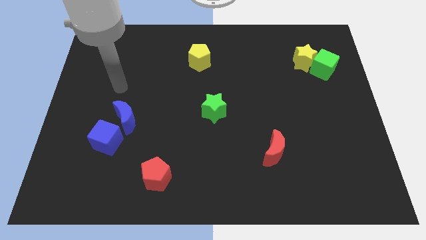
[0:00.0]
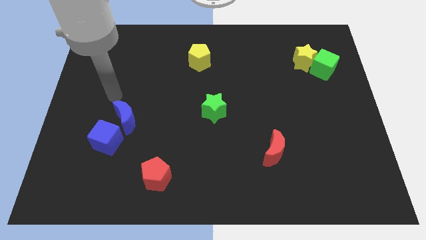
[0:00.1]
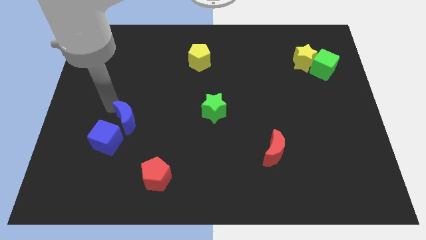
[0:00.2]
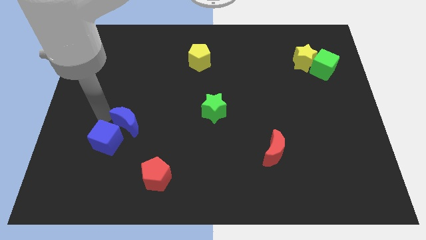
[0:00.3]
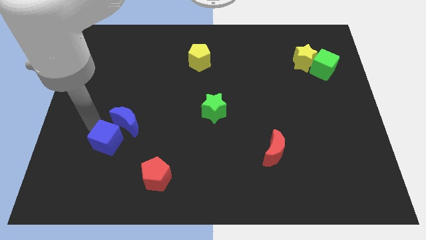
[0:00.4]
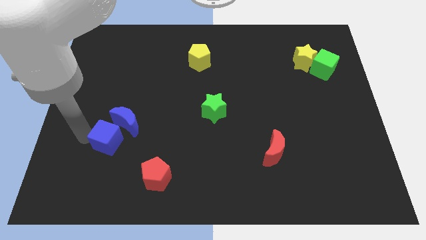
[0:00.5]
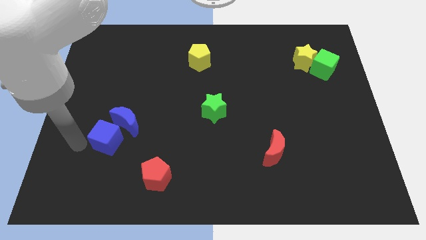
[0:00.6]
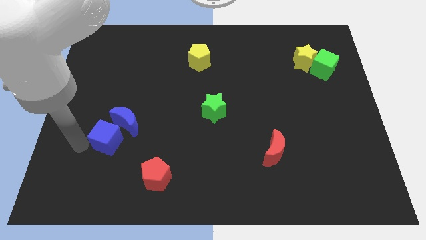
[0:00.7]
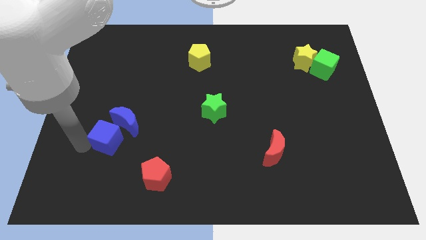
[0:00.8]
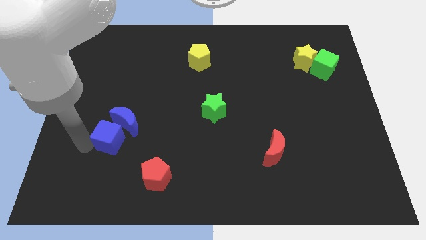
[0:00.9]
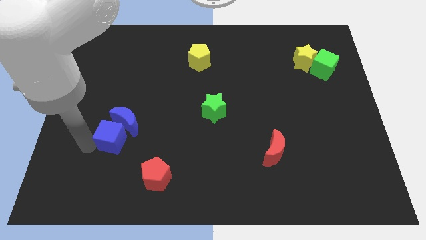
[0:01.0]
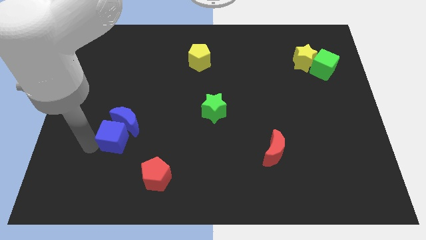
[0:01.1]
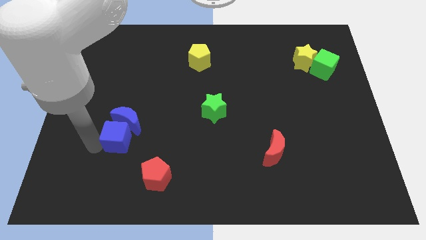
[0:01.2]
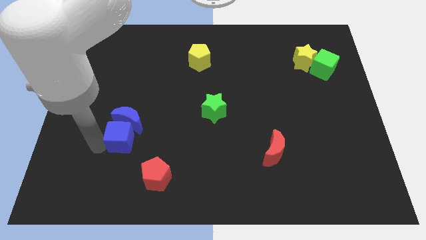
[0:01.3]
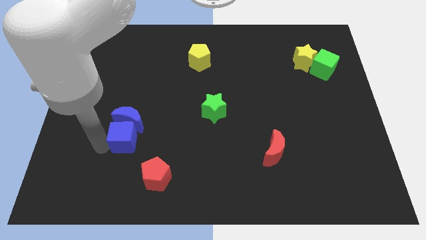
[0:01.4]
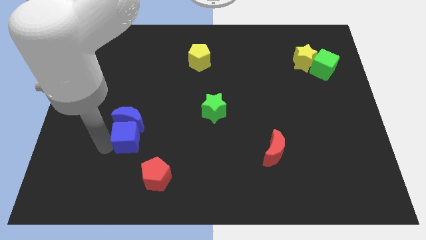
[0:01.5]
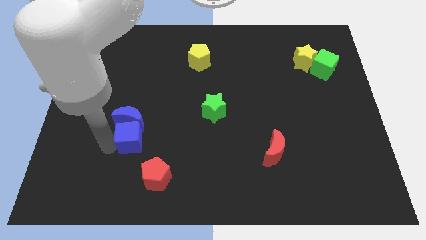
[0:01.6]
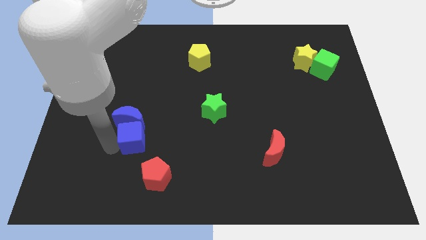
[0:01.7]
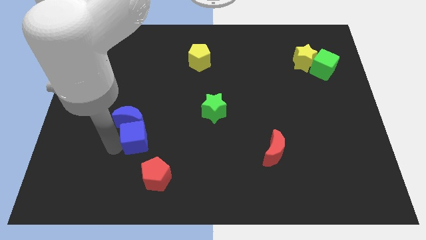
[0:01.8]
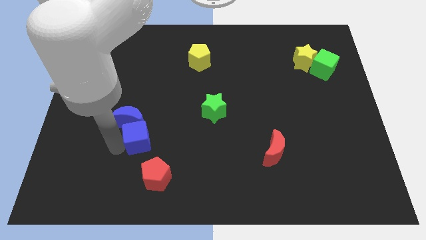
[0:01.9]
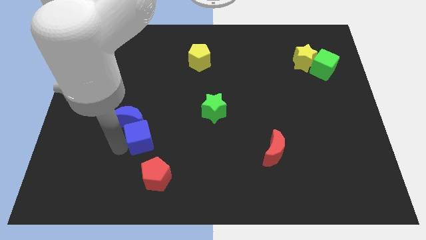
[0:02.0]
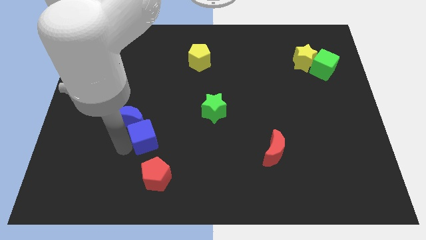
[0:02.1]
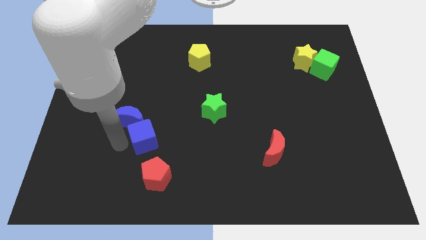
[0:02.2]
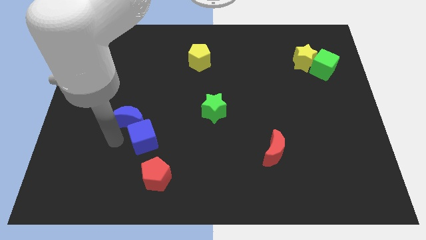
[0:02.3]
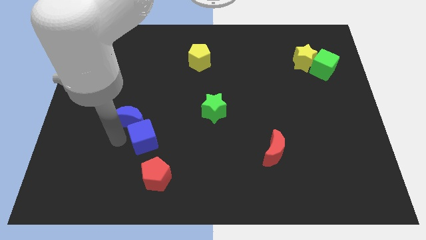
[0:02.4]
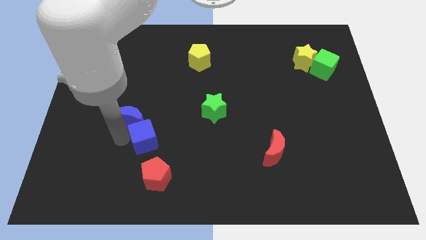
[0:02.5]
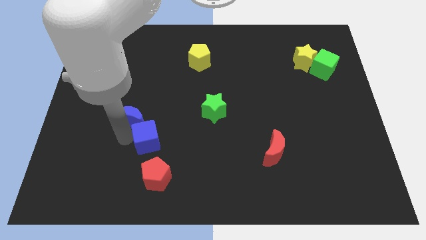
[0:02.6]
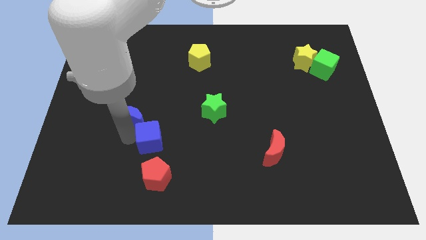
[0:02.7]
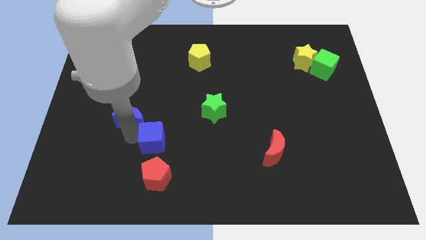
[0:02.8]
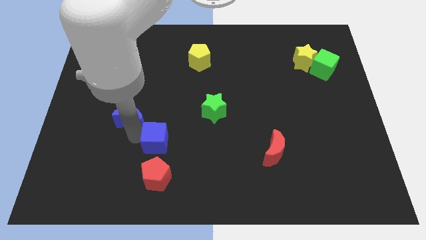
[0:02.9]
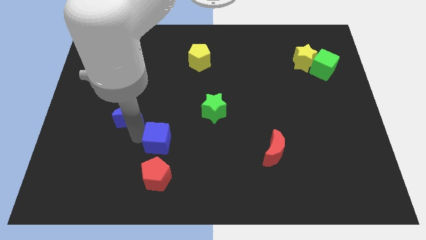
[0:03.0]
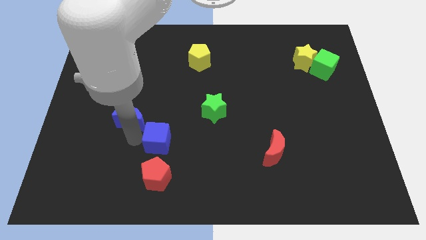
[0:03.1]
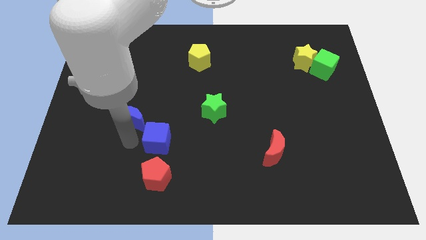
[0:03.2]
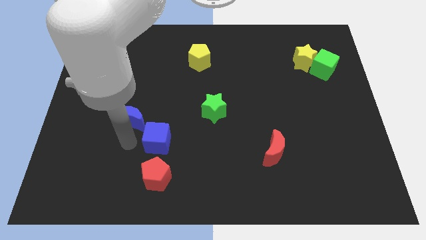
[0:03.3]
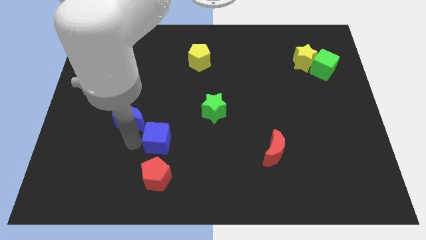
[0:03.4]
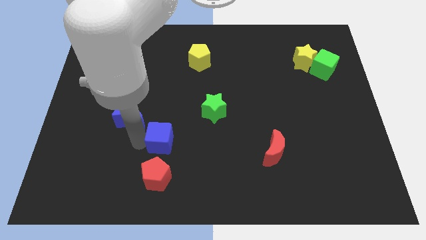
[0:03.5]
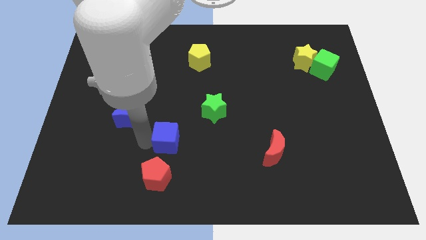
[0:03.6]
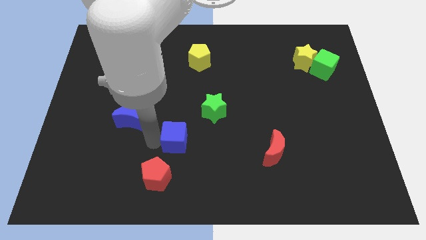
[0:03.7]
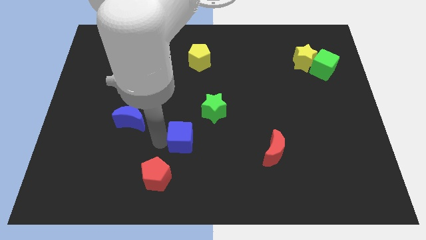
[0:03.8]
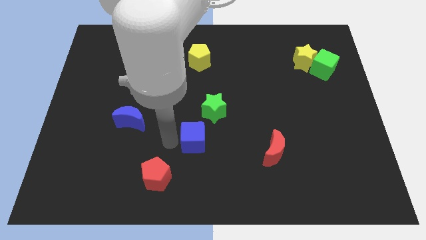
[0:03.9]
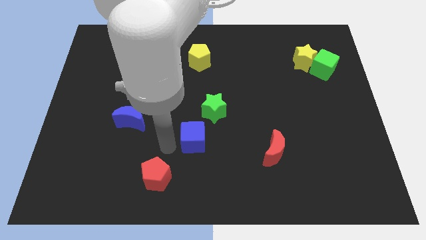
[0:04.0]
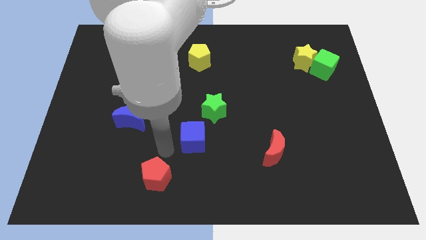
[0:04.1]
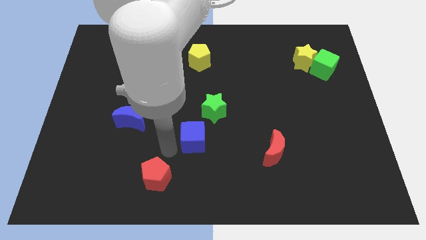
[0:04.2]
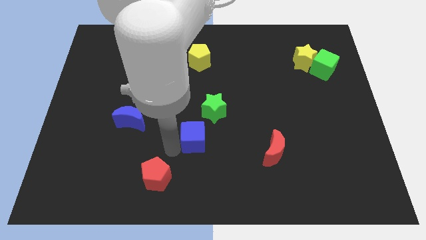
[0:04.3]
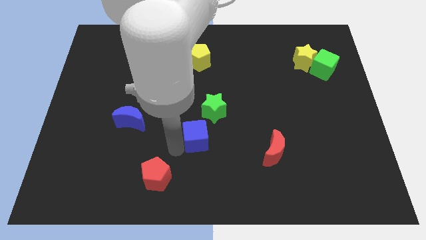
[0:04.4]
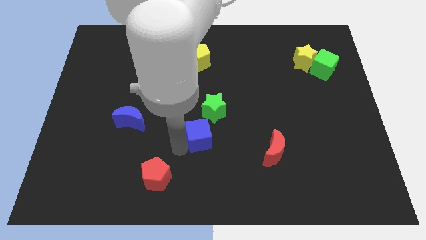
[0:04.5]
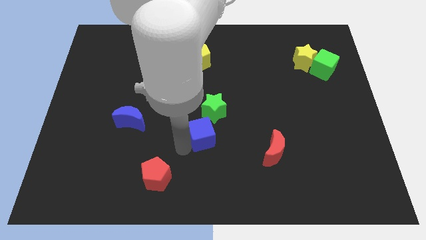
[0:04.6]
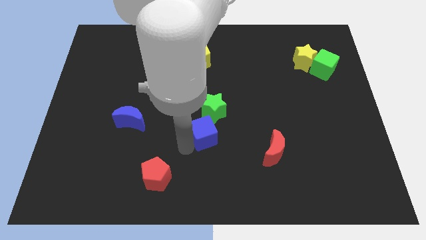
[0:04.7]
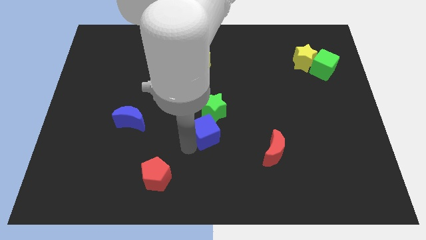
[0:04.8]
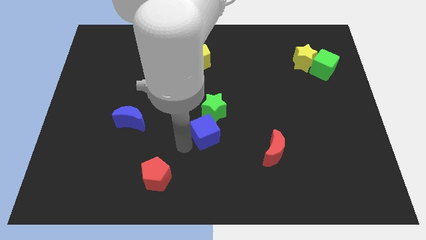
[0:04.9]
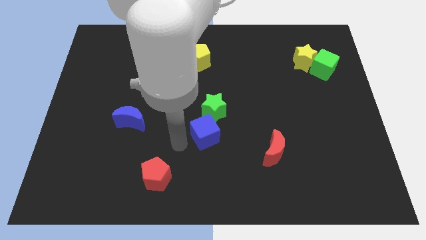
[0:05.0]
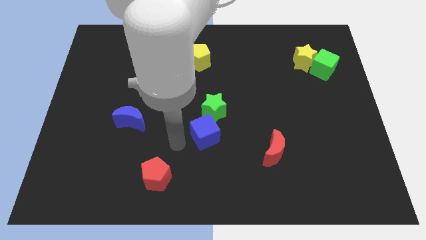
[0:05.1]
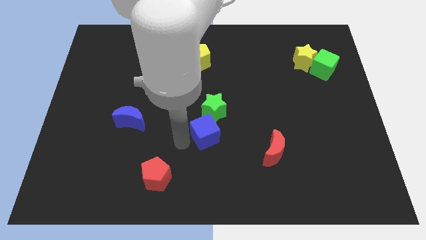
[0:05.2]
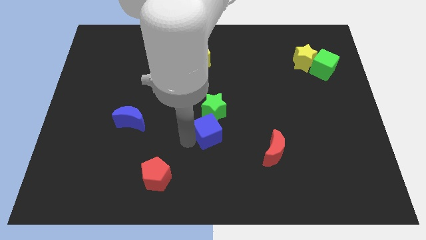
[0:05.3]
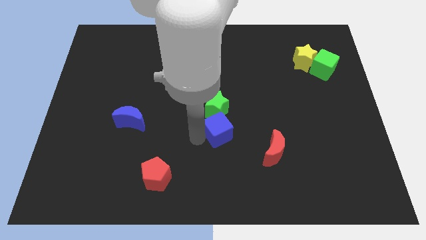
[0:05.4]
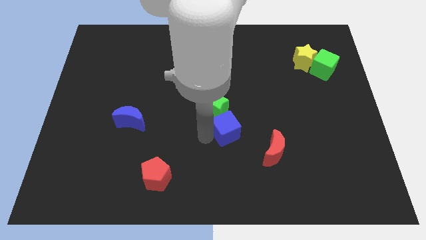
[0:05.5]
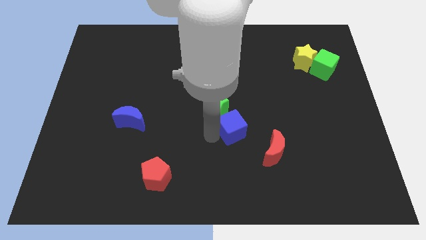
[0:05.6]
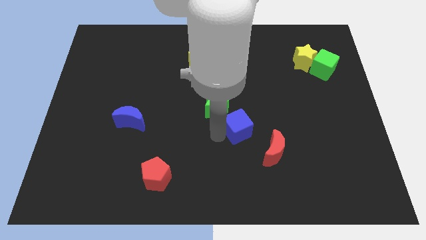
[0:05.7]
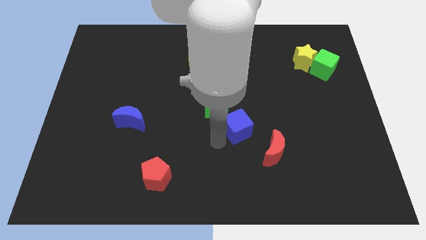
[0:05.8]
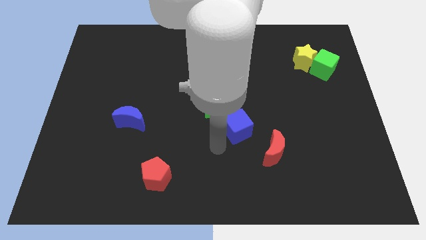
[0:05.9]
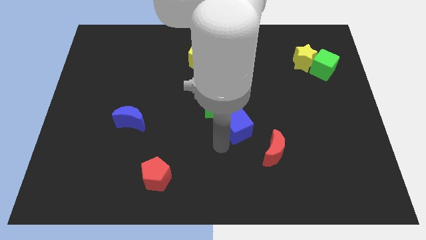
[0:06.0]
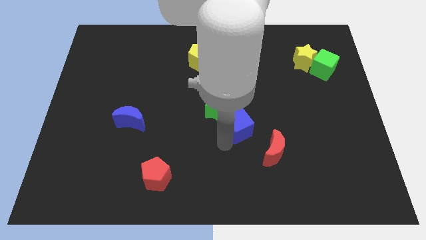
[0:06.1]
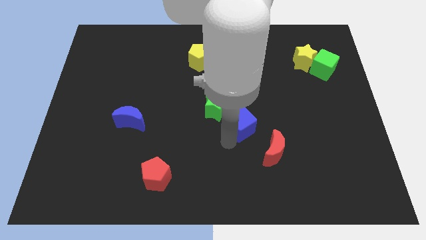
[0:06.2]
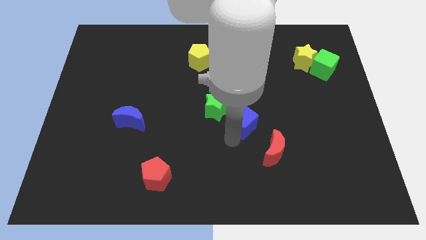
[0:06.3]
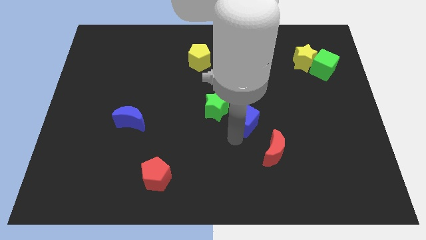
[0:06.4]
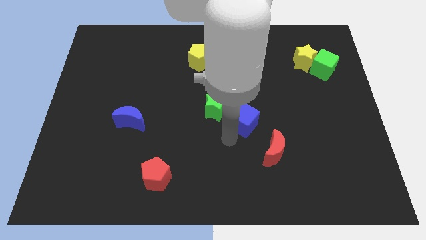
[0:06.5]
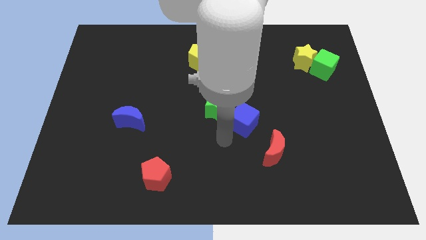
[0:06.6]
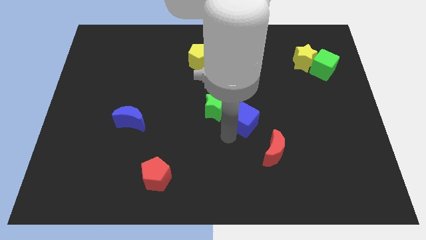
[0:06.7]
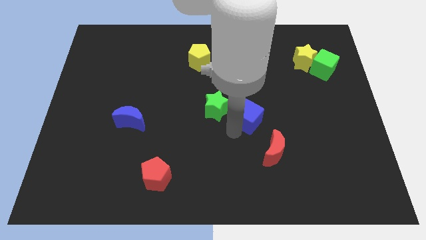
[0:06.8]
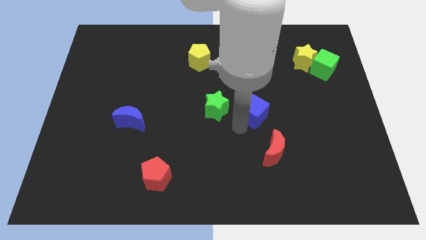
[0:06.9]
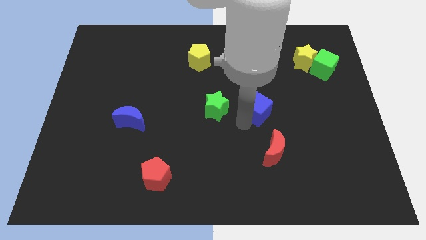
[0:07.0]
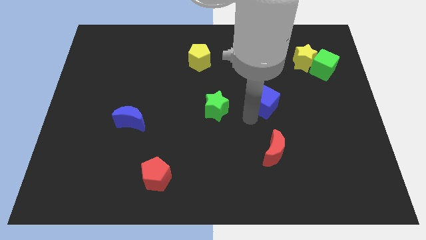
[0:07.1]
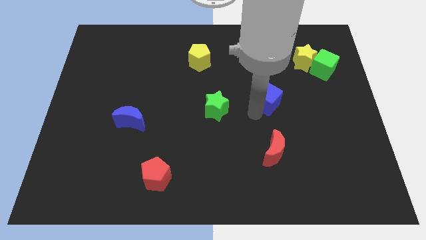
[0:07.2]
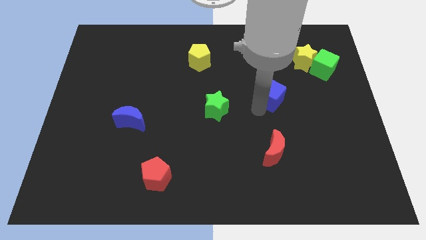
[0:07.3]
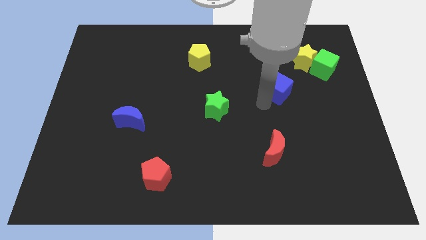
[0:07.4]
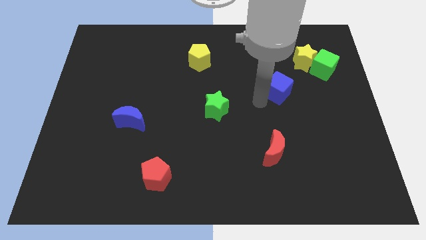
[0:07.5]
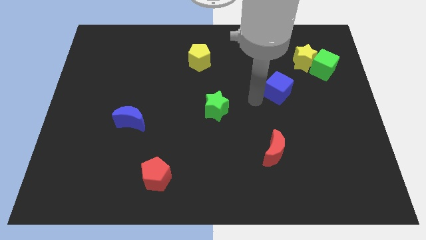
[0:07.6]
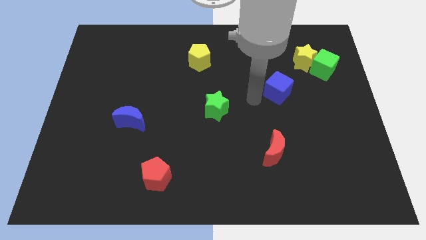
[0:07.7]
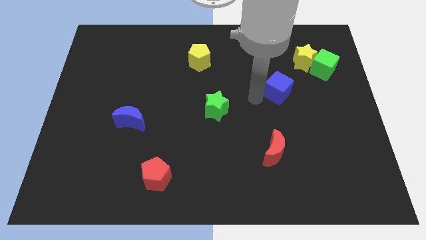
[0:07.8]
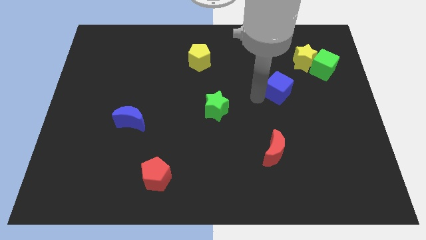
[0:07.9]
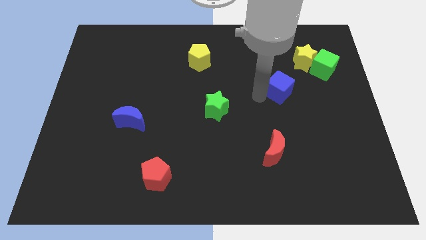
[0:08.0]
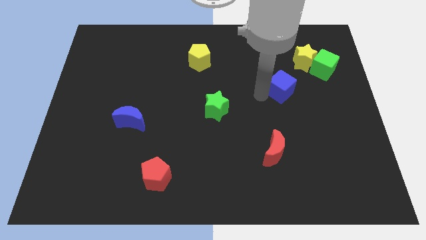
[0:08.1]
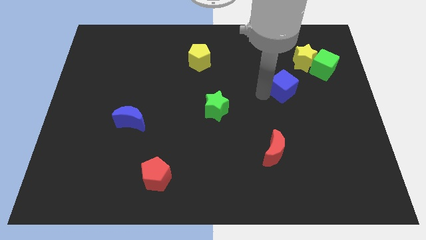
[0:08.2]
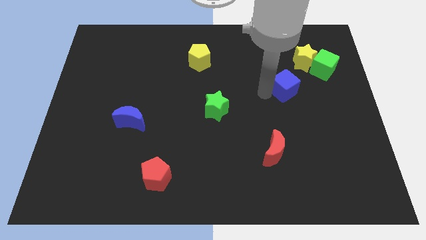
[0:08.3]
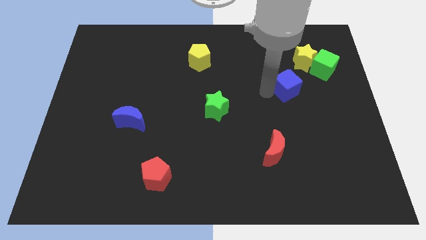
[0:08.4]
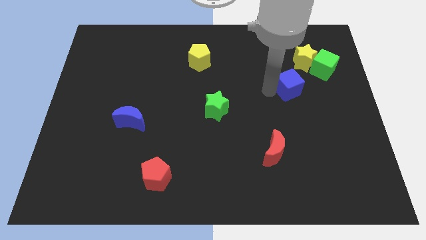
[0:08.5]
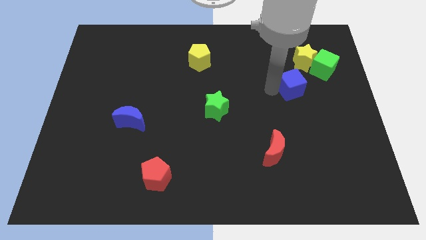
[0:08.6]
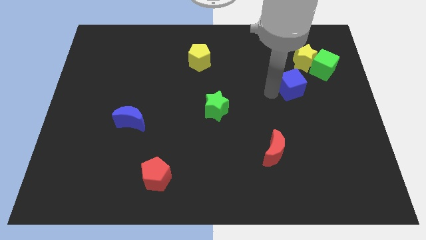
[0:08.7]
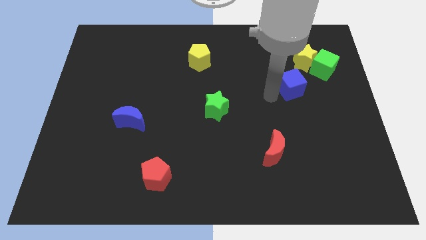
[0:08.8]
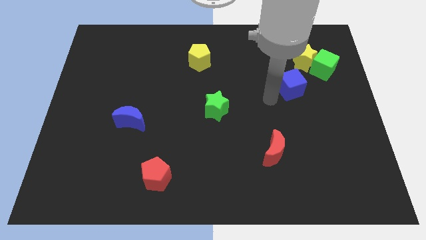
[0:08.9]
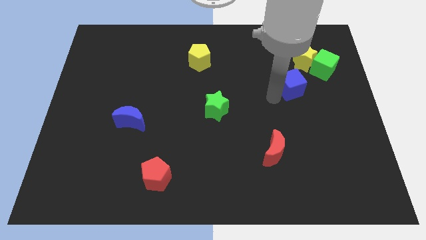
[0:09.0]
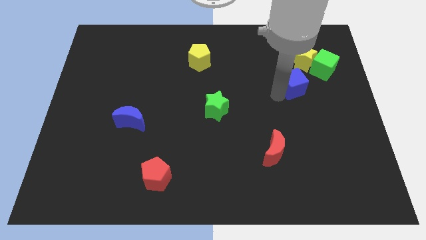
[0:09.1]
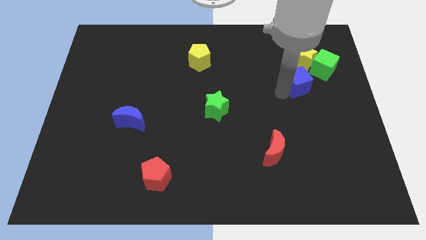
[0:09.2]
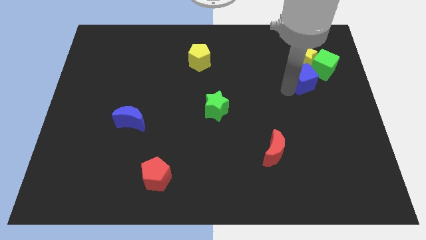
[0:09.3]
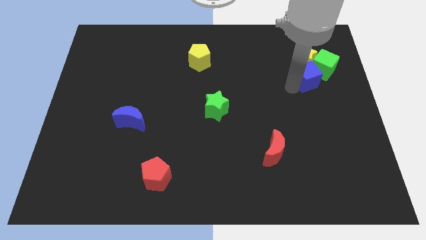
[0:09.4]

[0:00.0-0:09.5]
put the blue cube towards the green cube
